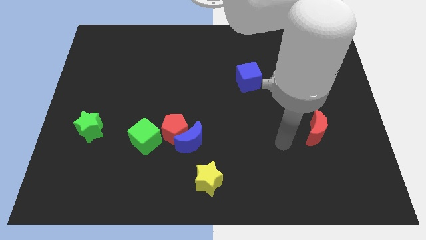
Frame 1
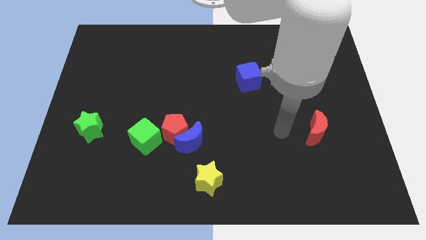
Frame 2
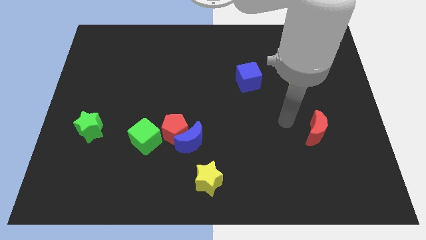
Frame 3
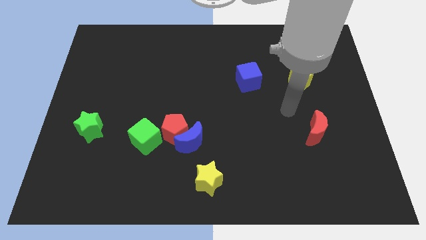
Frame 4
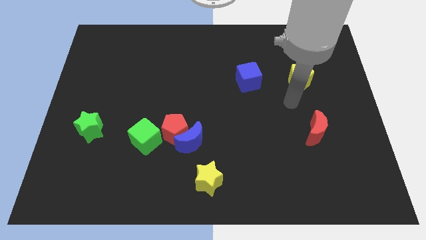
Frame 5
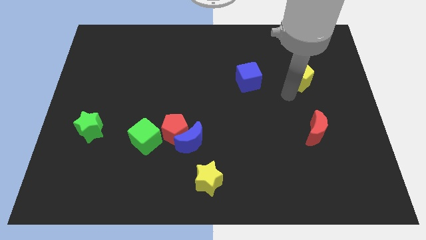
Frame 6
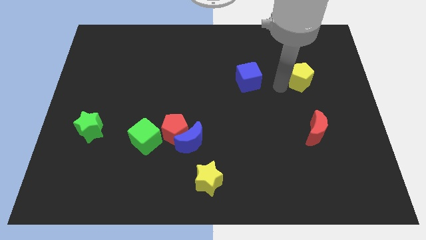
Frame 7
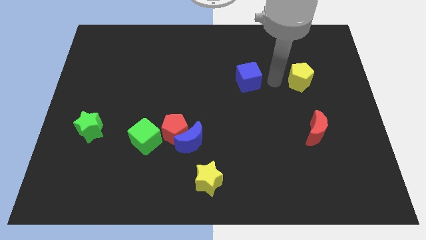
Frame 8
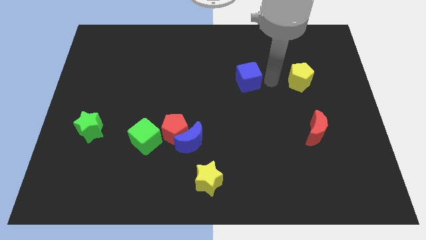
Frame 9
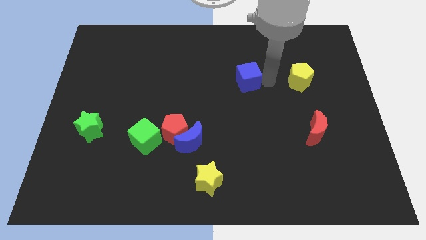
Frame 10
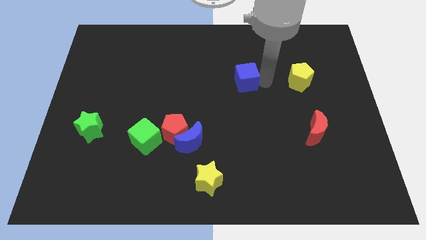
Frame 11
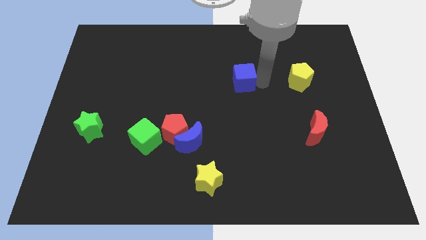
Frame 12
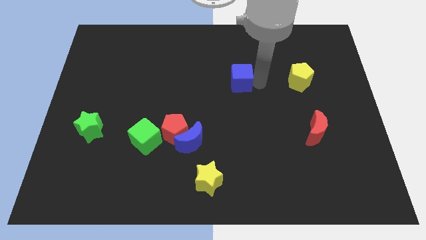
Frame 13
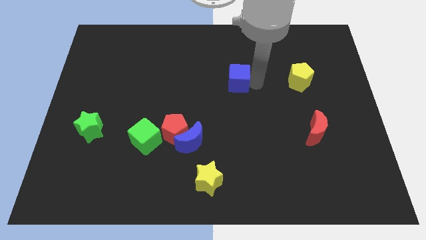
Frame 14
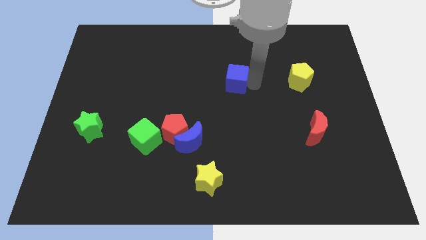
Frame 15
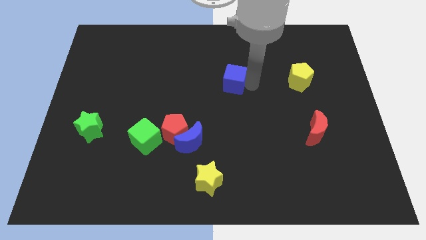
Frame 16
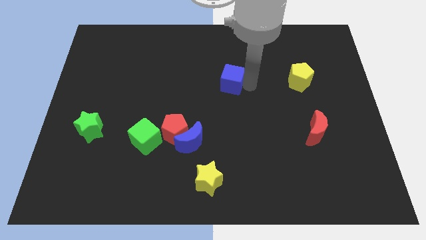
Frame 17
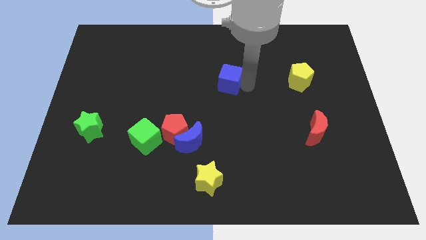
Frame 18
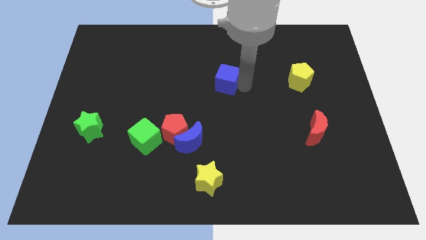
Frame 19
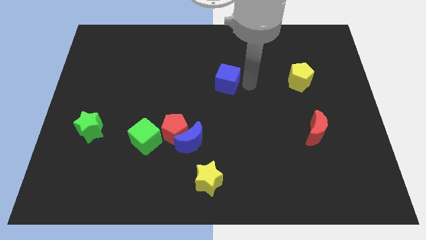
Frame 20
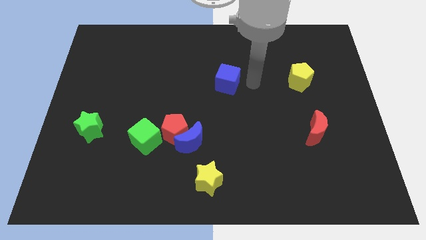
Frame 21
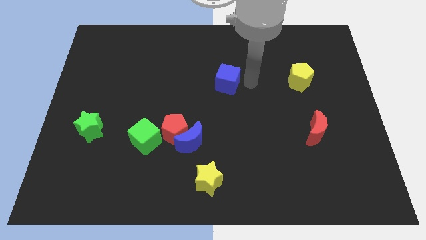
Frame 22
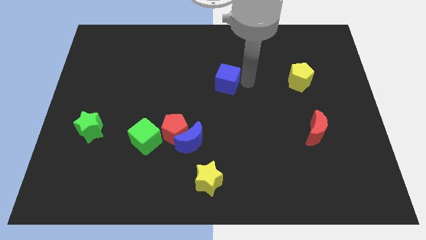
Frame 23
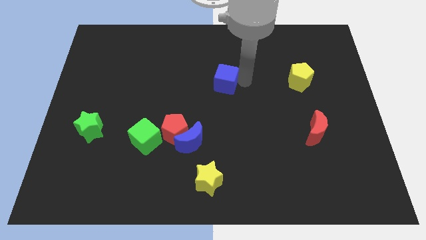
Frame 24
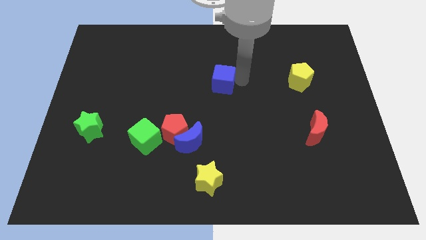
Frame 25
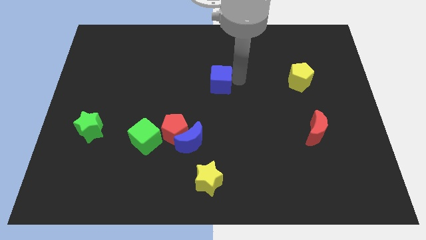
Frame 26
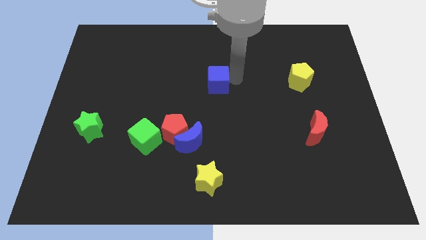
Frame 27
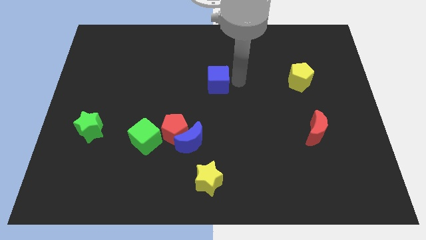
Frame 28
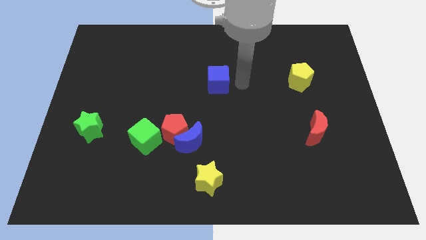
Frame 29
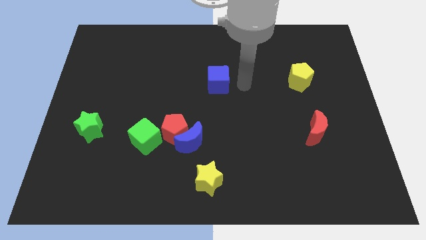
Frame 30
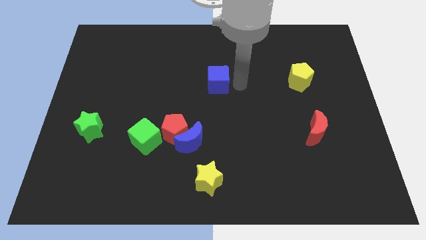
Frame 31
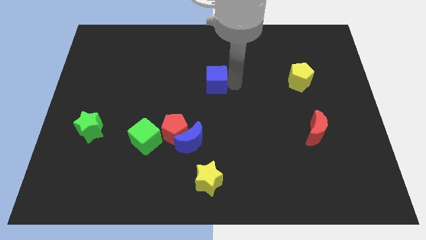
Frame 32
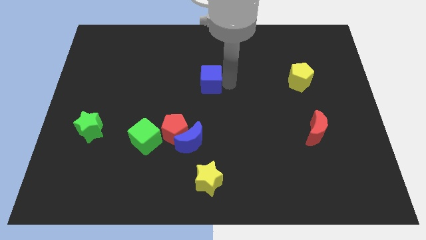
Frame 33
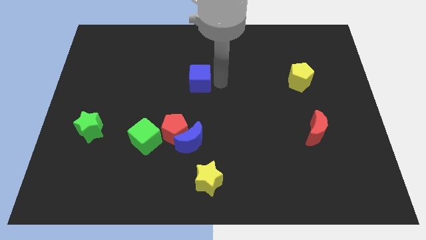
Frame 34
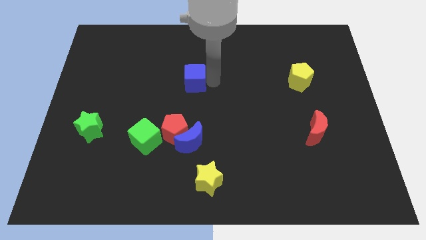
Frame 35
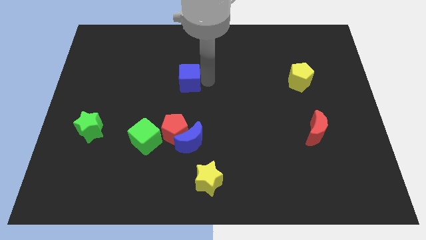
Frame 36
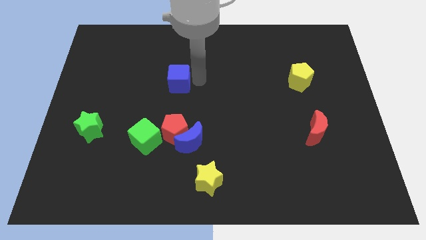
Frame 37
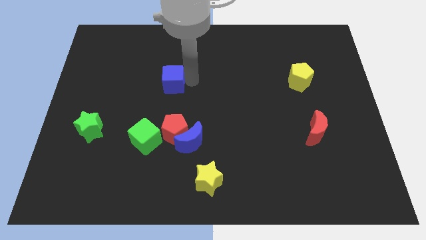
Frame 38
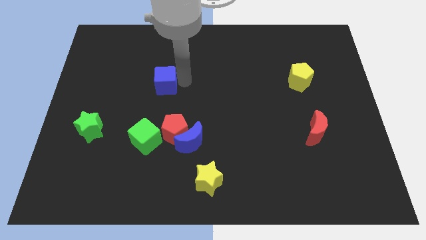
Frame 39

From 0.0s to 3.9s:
push the blue cube left

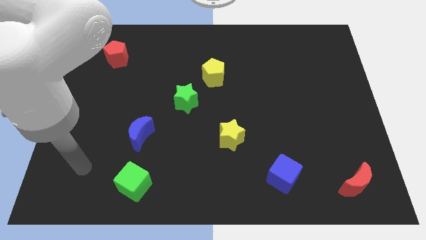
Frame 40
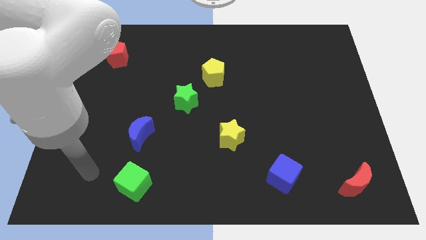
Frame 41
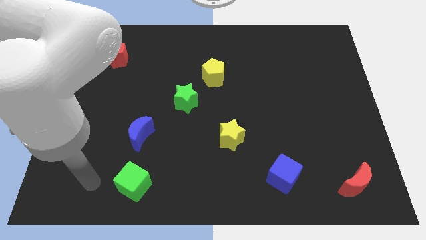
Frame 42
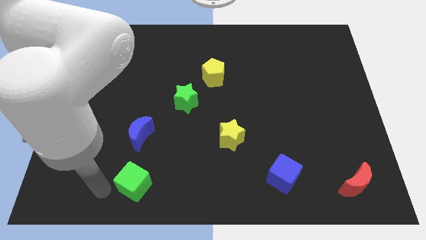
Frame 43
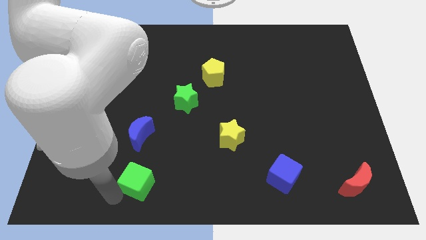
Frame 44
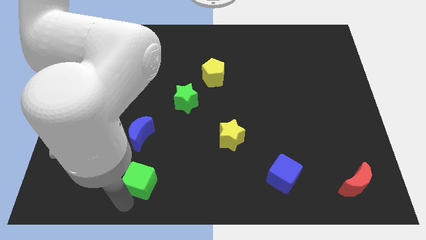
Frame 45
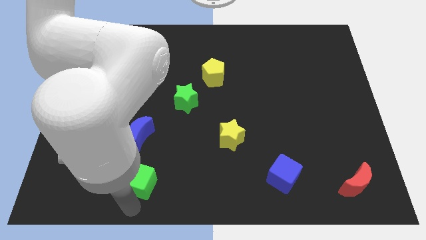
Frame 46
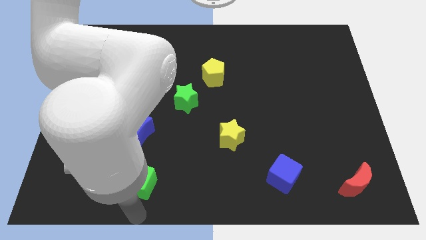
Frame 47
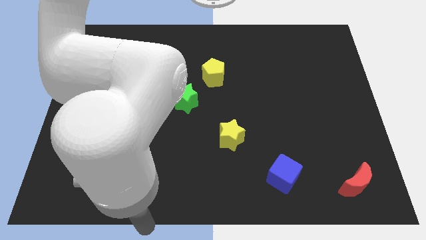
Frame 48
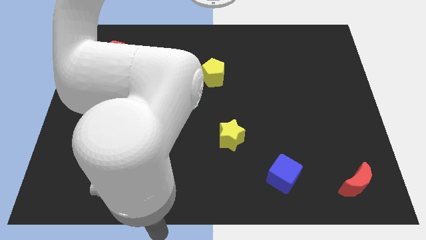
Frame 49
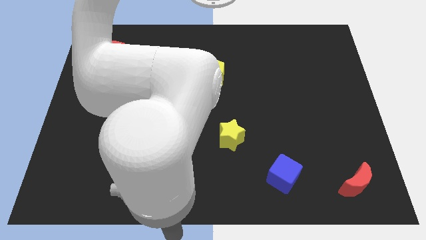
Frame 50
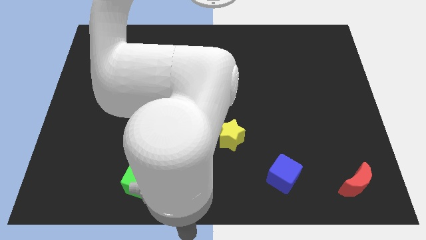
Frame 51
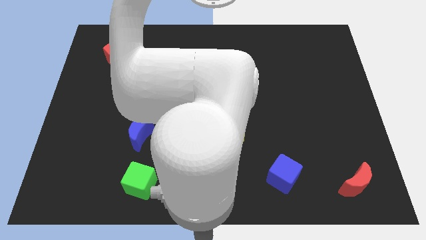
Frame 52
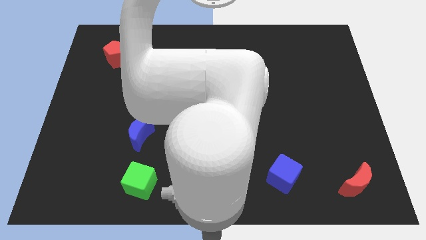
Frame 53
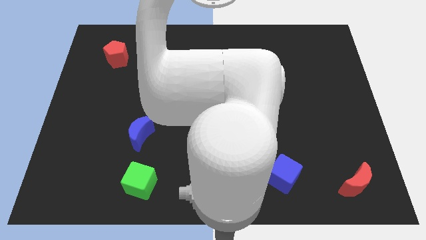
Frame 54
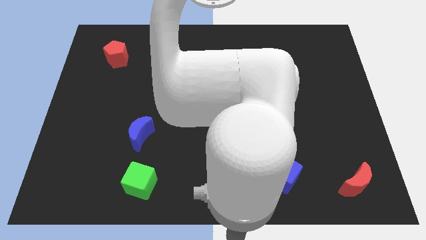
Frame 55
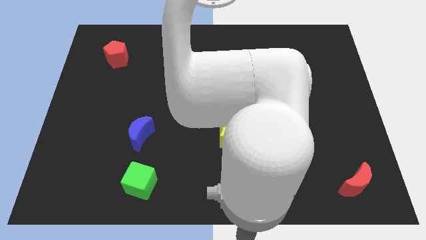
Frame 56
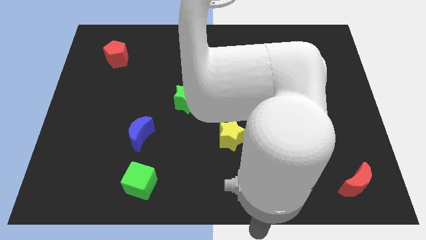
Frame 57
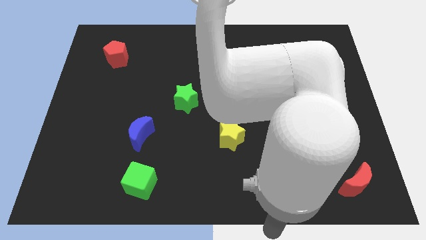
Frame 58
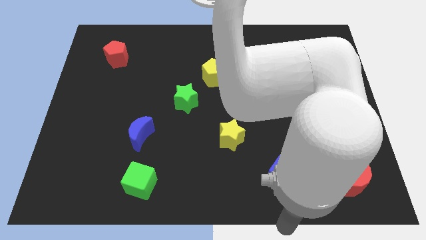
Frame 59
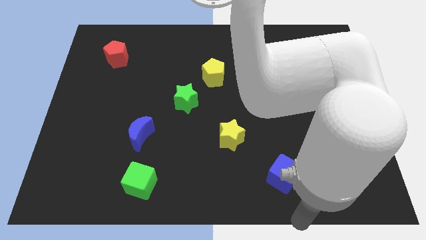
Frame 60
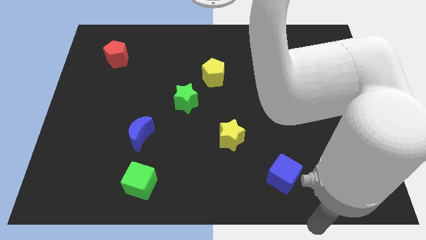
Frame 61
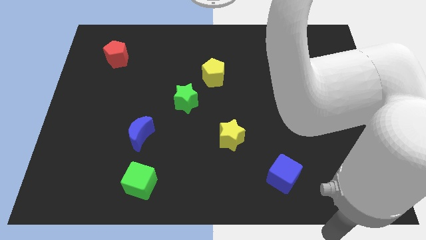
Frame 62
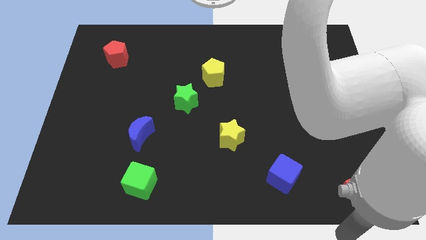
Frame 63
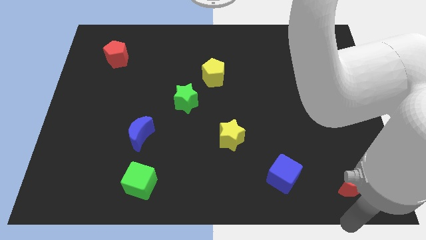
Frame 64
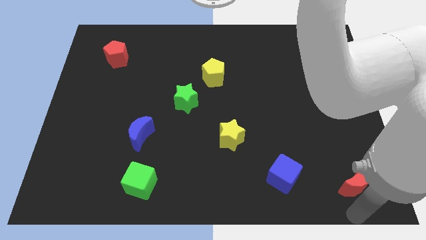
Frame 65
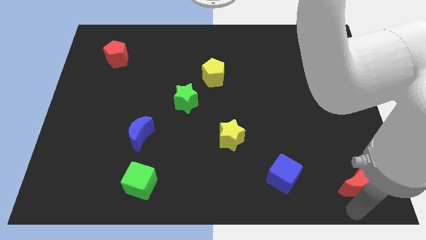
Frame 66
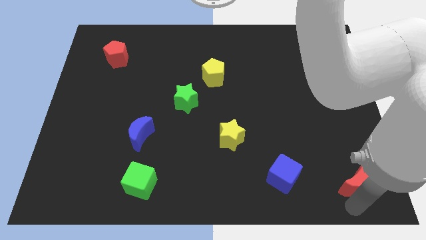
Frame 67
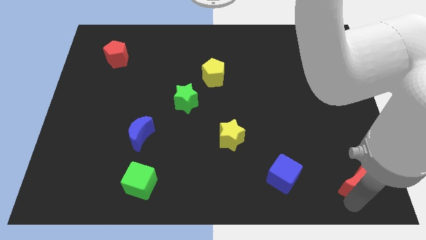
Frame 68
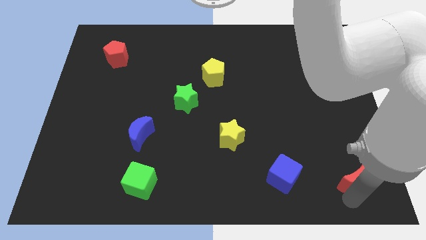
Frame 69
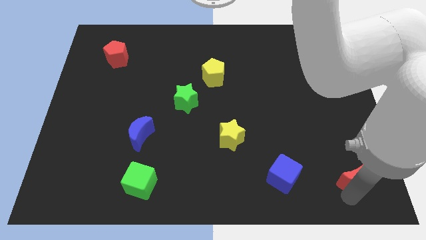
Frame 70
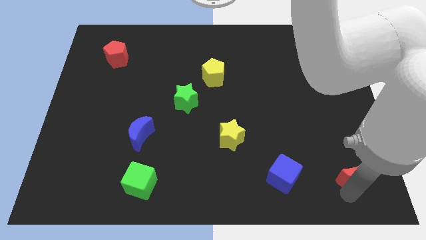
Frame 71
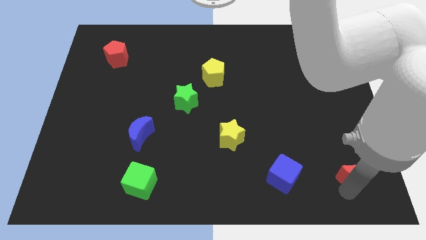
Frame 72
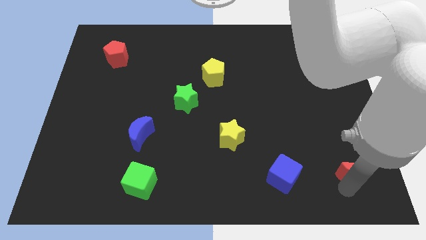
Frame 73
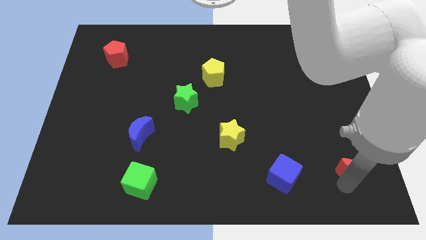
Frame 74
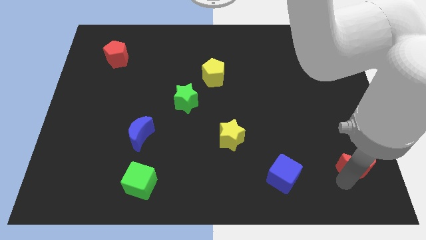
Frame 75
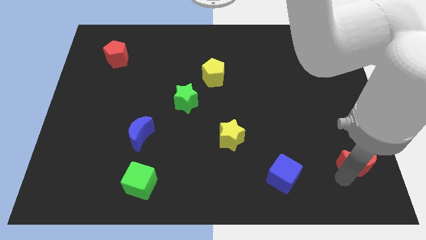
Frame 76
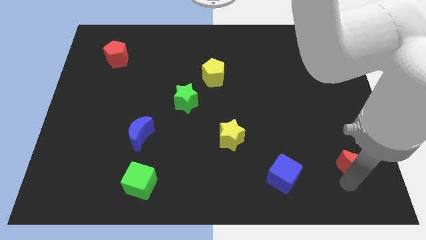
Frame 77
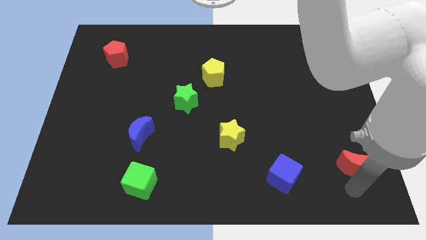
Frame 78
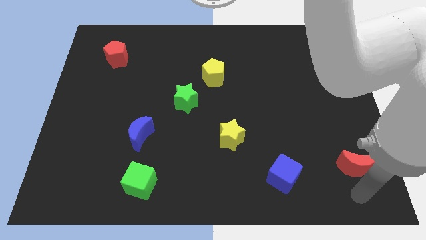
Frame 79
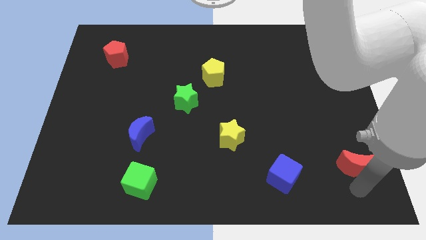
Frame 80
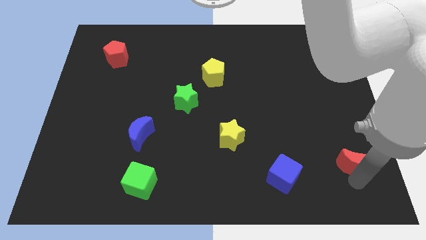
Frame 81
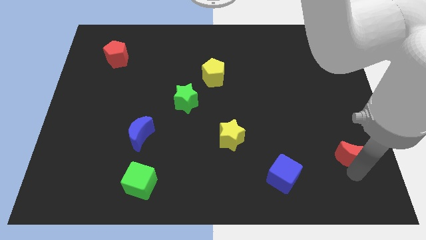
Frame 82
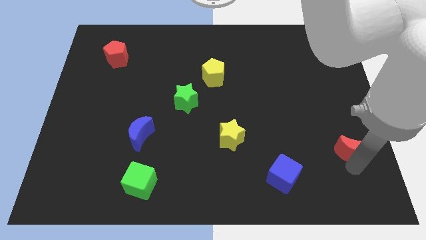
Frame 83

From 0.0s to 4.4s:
move the red moon upwards a little
